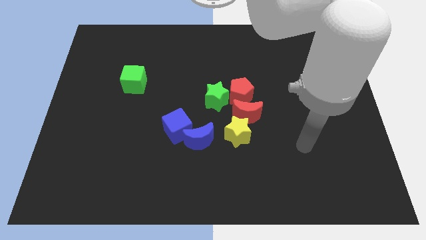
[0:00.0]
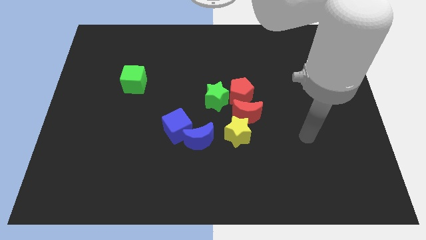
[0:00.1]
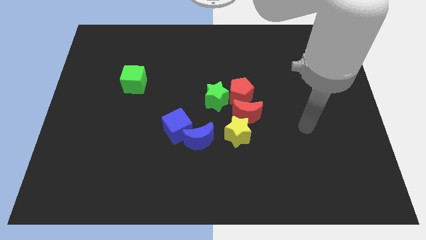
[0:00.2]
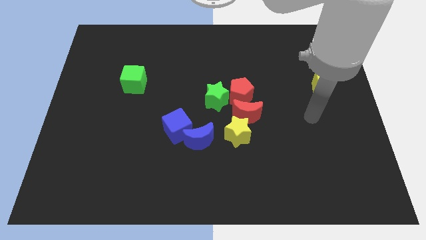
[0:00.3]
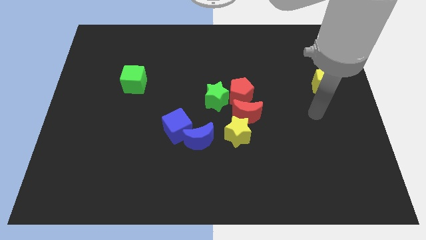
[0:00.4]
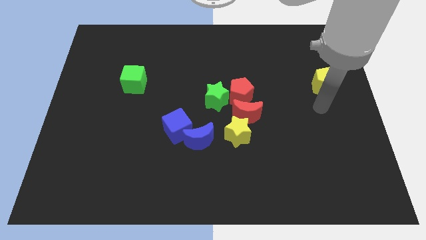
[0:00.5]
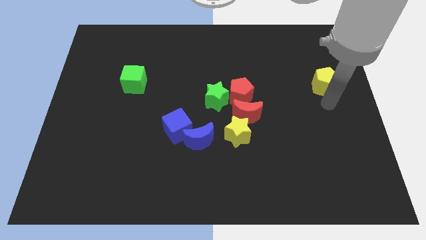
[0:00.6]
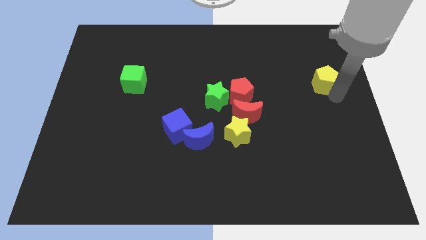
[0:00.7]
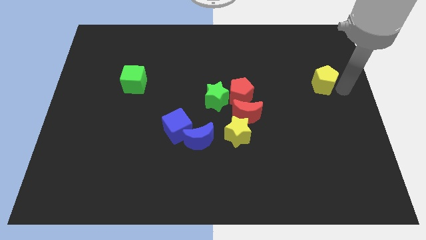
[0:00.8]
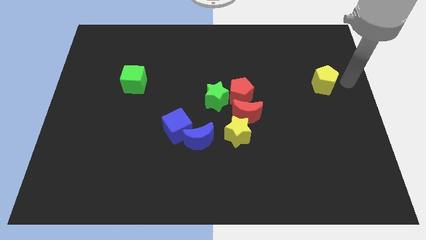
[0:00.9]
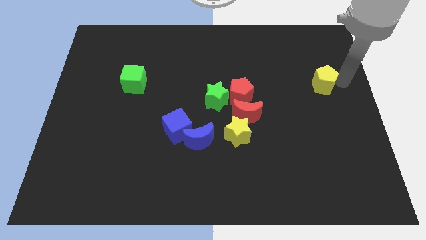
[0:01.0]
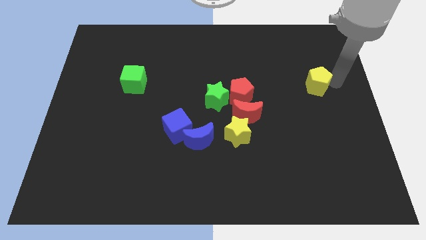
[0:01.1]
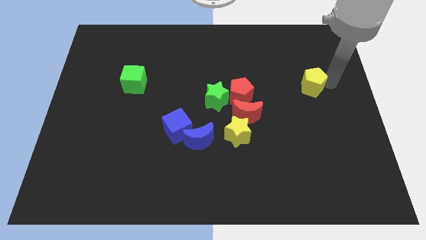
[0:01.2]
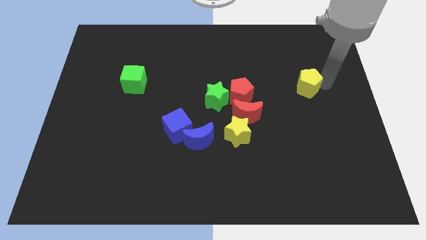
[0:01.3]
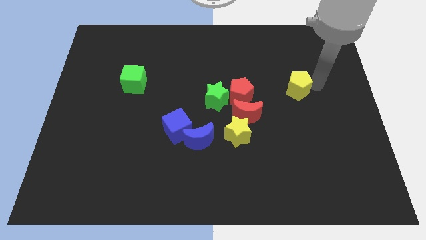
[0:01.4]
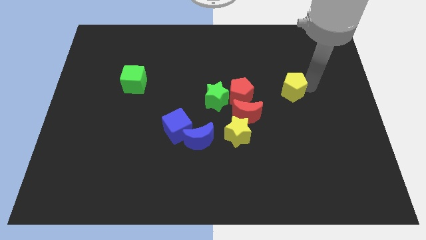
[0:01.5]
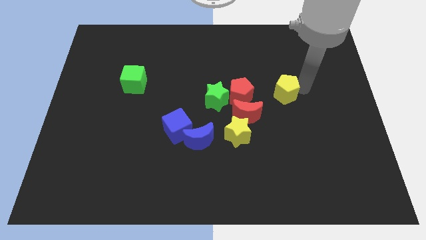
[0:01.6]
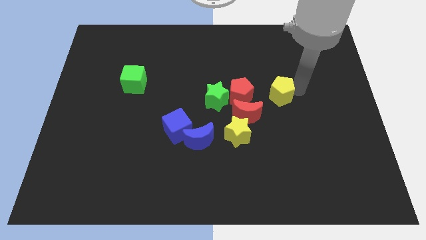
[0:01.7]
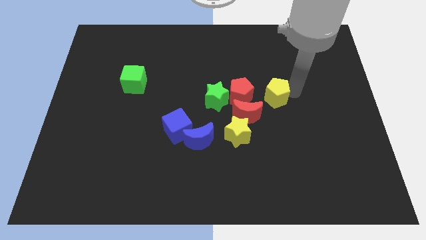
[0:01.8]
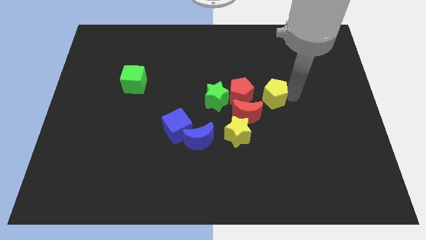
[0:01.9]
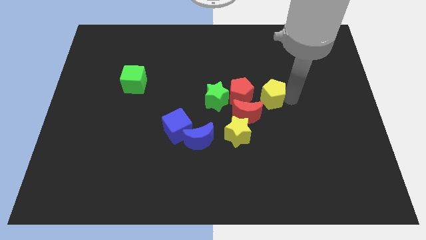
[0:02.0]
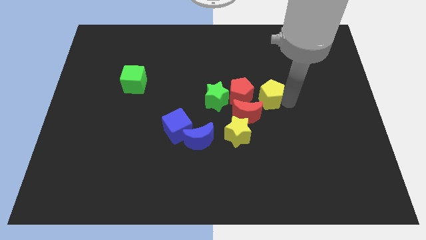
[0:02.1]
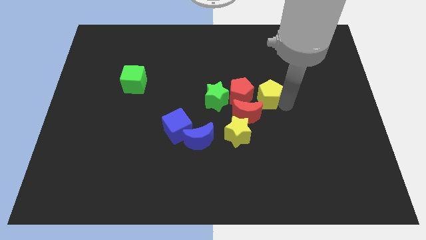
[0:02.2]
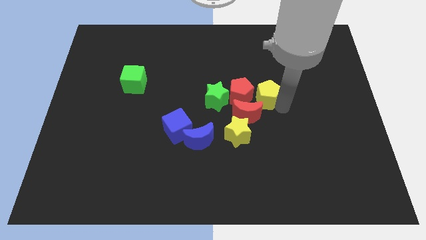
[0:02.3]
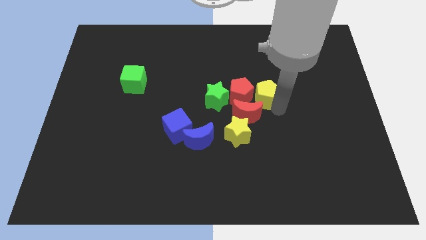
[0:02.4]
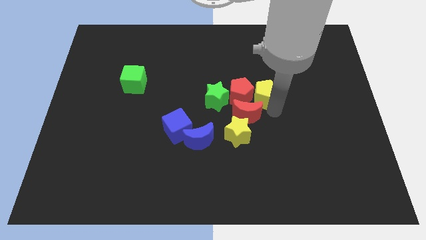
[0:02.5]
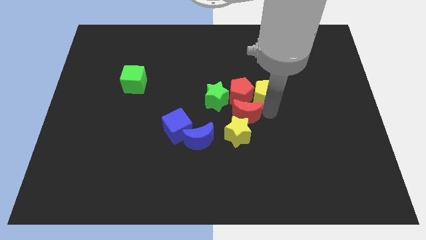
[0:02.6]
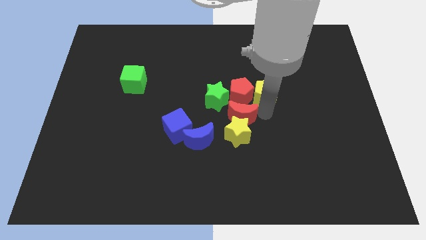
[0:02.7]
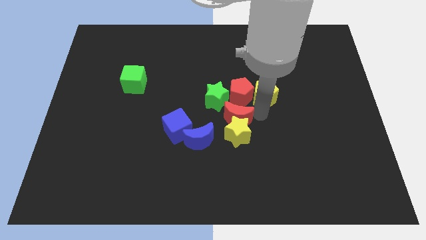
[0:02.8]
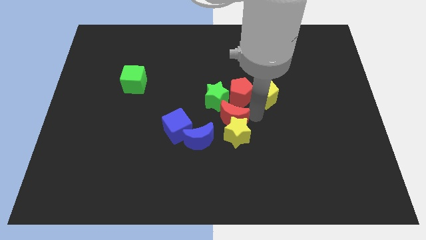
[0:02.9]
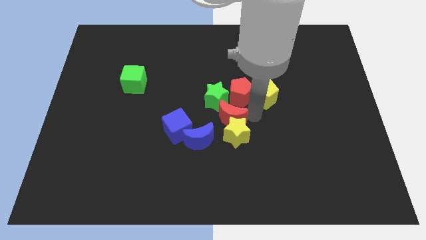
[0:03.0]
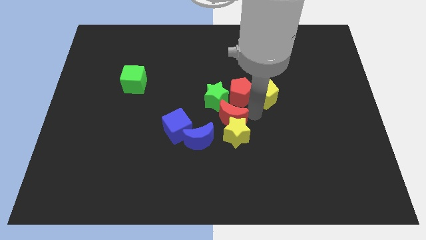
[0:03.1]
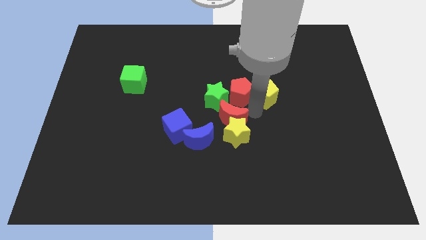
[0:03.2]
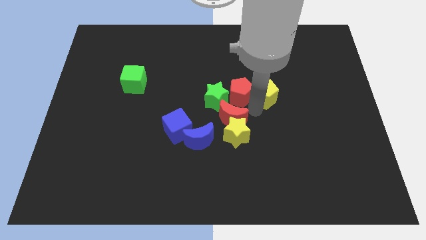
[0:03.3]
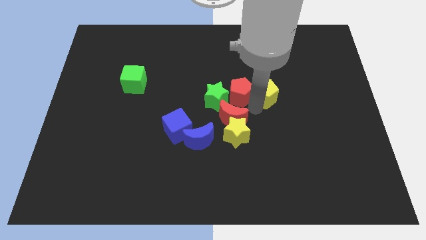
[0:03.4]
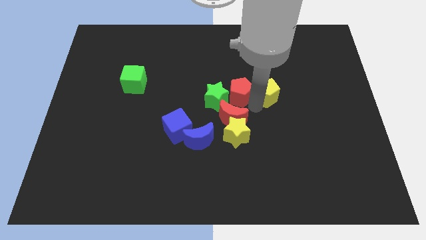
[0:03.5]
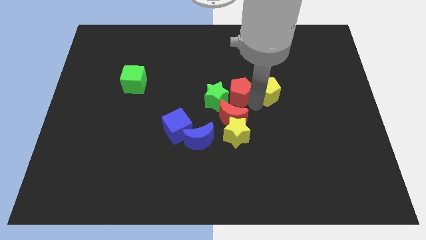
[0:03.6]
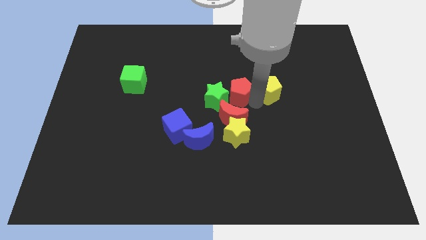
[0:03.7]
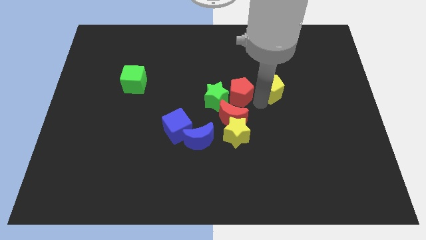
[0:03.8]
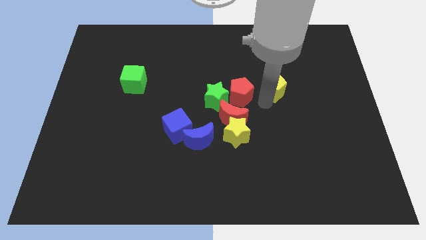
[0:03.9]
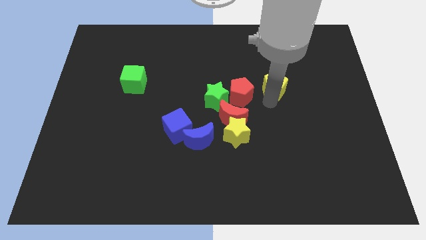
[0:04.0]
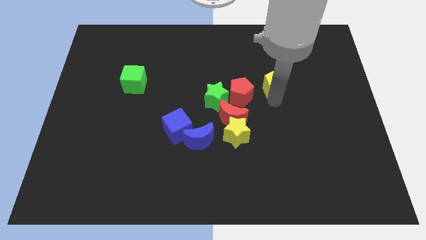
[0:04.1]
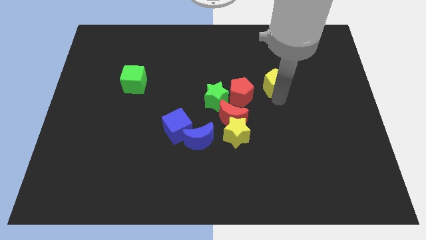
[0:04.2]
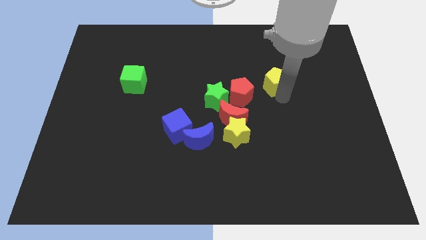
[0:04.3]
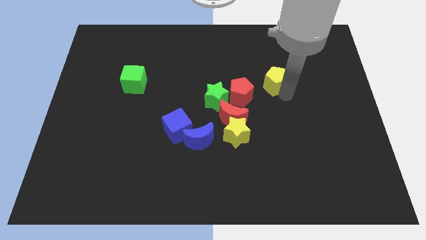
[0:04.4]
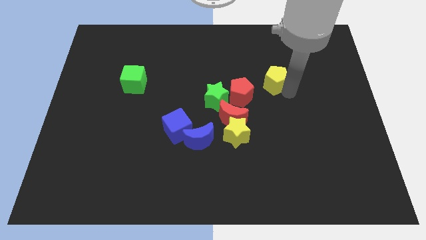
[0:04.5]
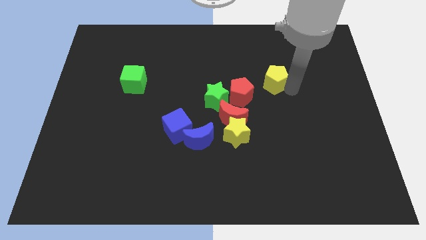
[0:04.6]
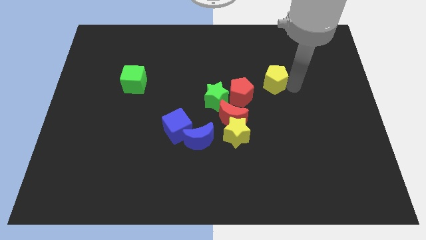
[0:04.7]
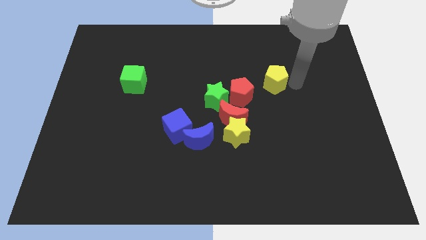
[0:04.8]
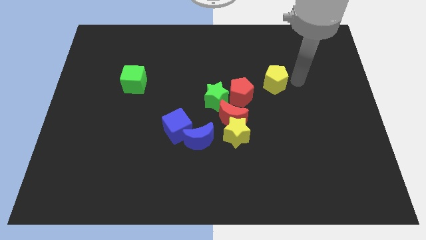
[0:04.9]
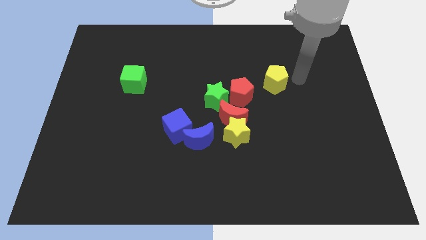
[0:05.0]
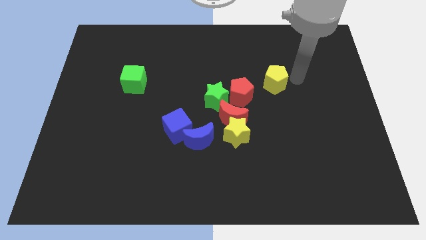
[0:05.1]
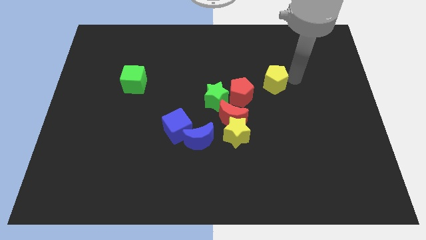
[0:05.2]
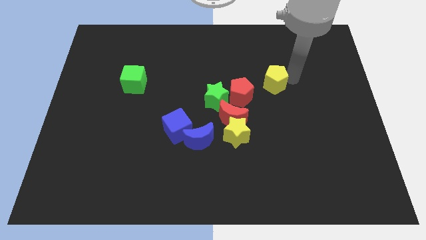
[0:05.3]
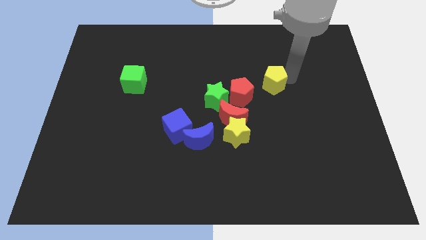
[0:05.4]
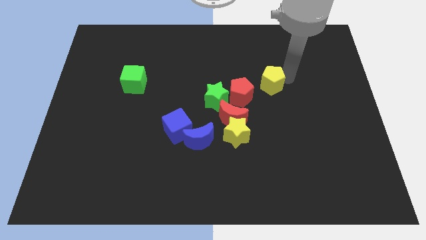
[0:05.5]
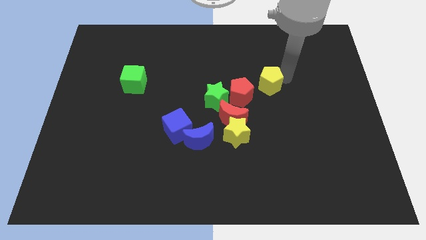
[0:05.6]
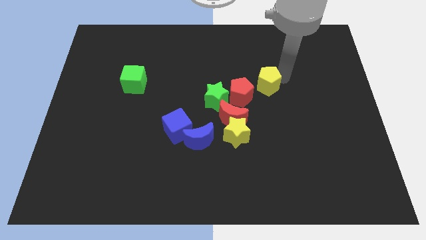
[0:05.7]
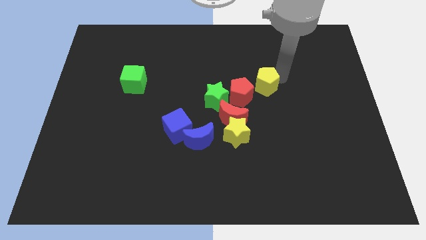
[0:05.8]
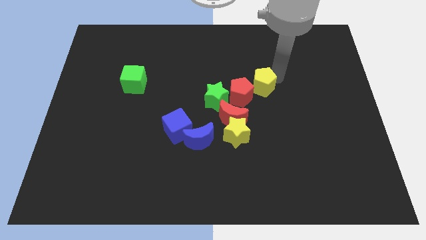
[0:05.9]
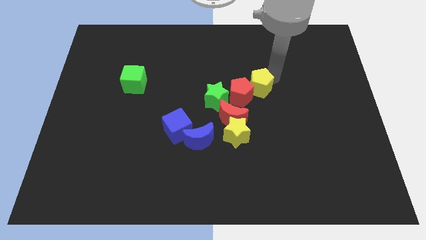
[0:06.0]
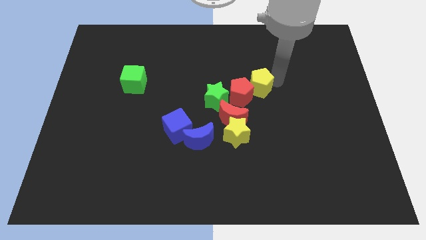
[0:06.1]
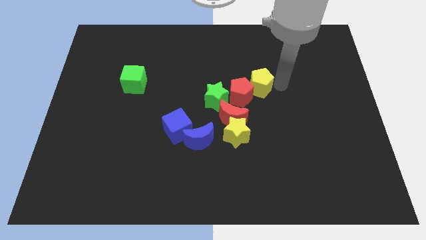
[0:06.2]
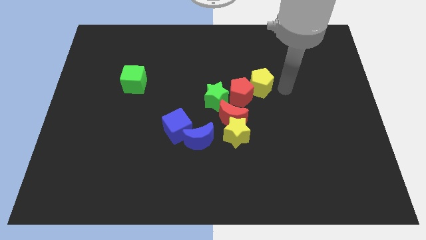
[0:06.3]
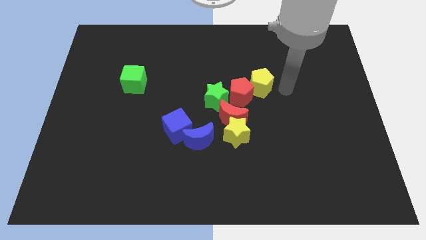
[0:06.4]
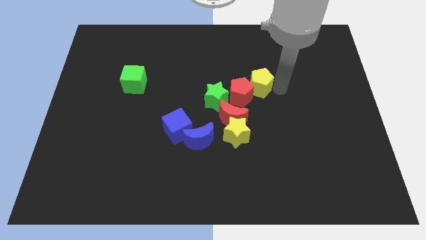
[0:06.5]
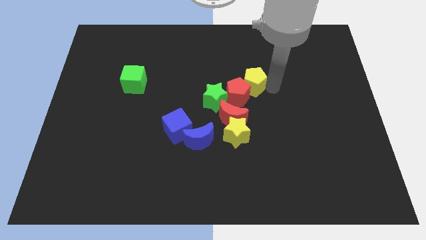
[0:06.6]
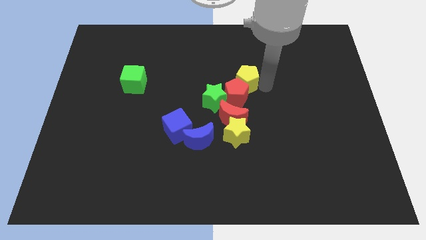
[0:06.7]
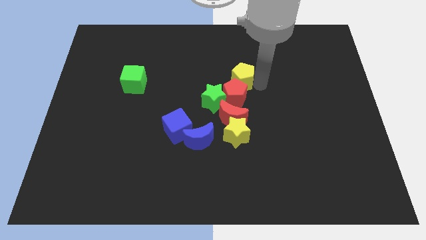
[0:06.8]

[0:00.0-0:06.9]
slide the yellow pentagon to the left

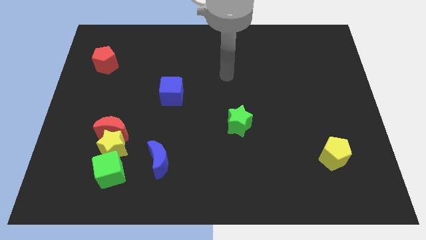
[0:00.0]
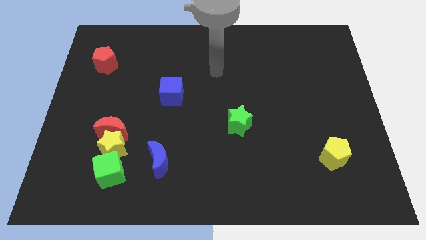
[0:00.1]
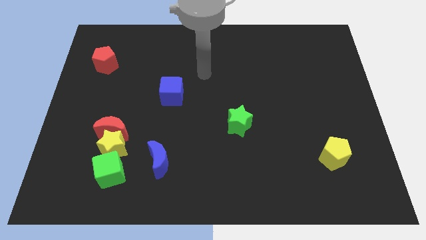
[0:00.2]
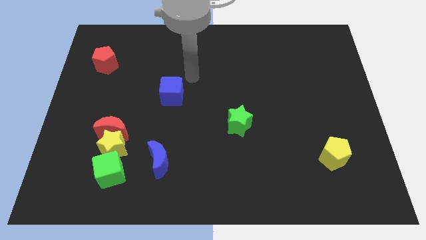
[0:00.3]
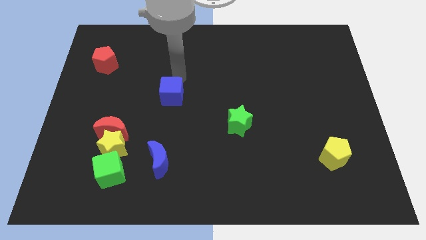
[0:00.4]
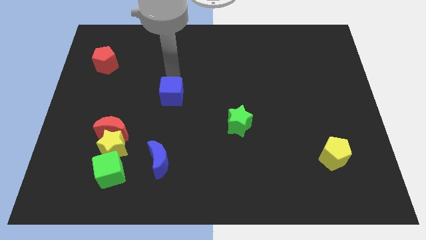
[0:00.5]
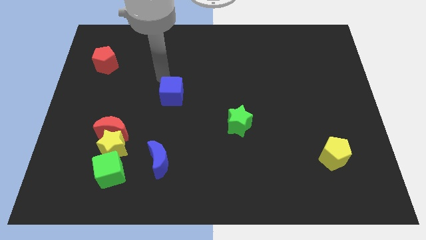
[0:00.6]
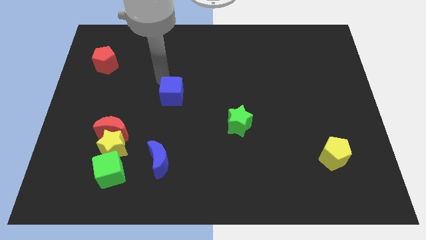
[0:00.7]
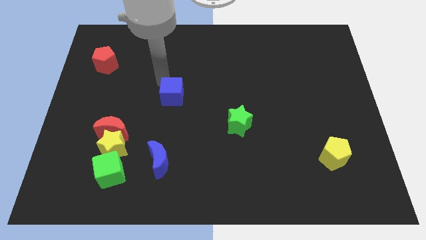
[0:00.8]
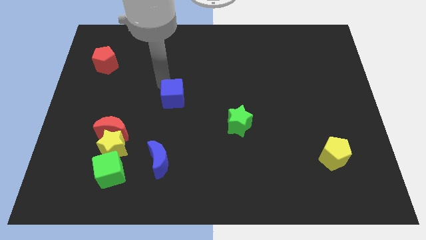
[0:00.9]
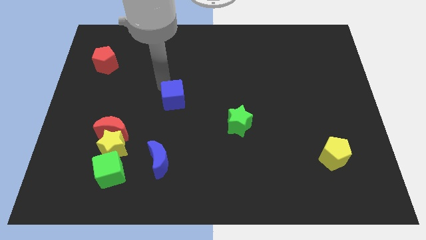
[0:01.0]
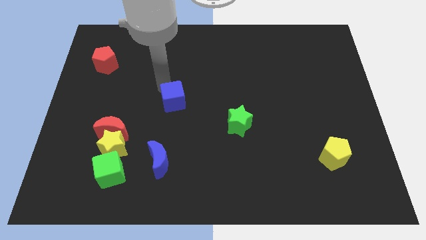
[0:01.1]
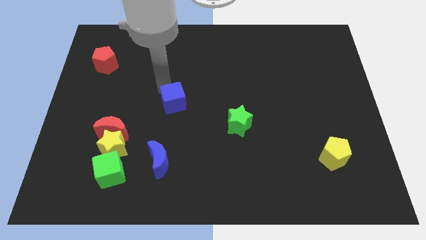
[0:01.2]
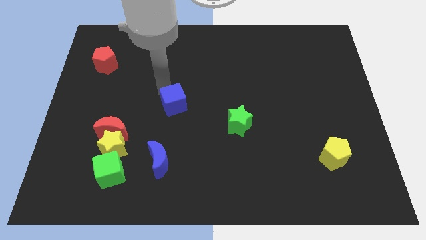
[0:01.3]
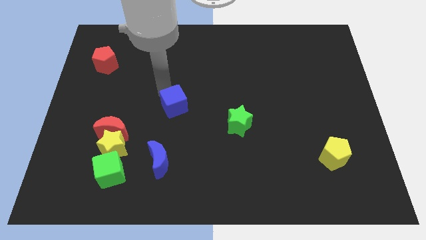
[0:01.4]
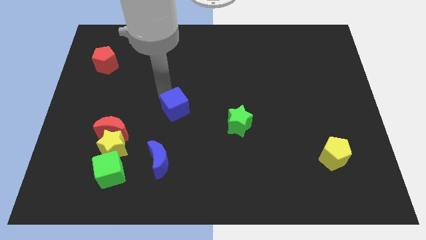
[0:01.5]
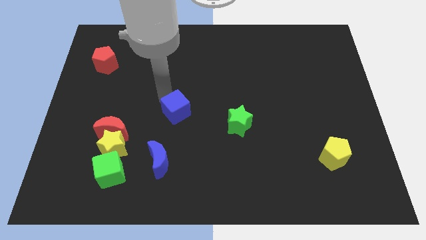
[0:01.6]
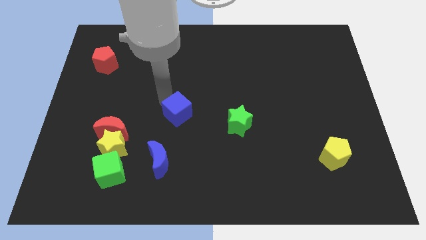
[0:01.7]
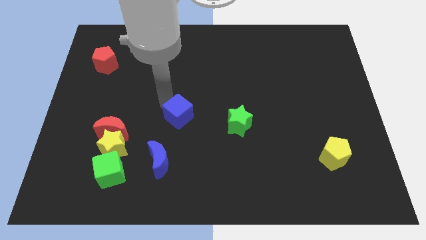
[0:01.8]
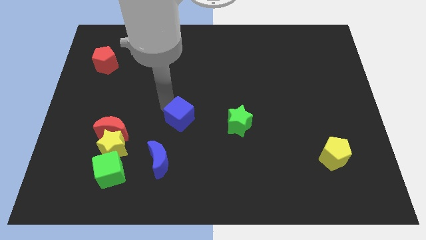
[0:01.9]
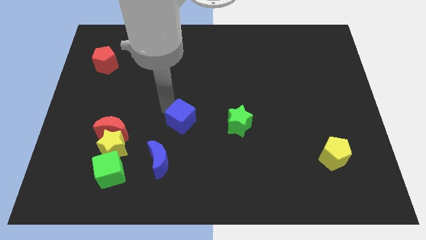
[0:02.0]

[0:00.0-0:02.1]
slightly push the blue cube down and to the right diagonally
